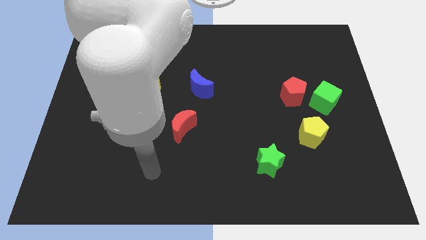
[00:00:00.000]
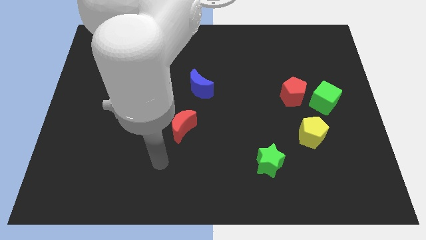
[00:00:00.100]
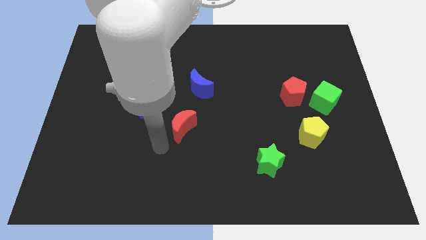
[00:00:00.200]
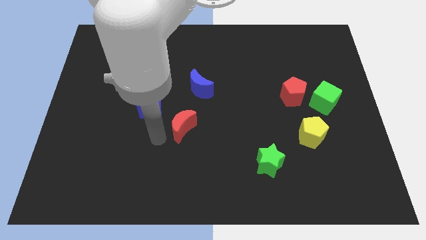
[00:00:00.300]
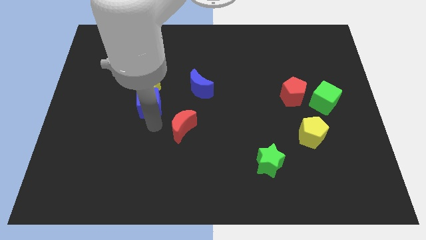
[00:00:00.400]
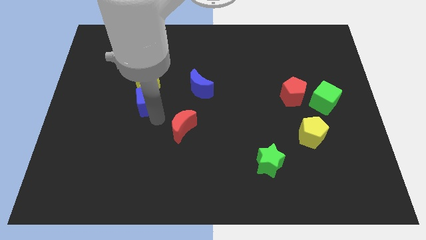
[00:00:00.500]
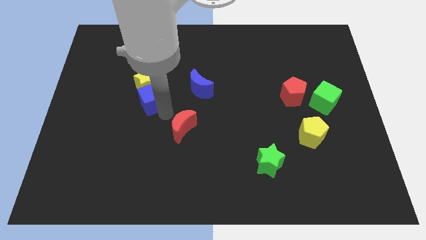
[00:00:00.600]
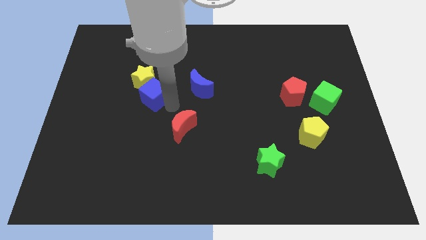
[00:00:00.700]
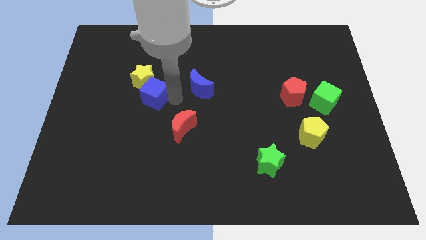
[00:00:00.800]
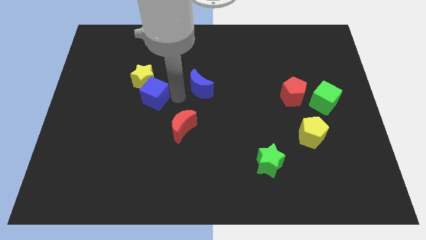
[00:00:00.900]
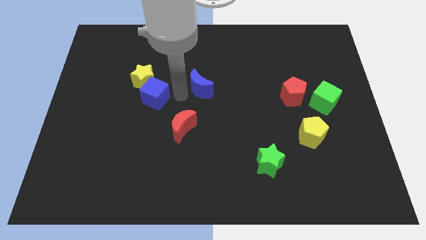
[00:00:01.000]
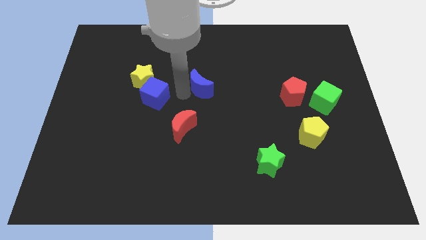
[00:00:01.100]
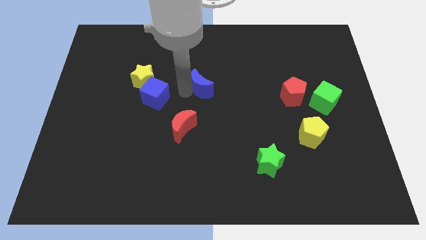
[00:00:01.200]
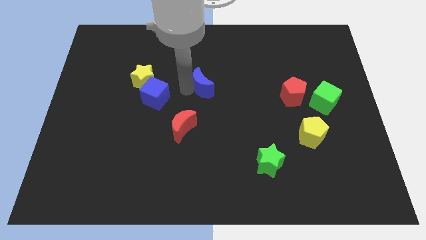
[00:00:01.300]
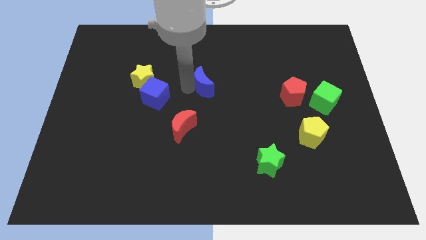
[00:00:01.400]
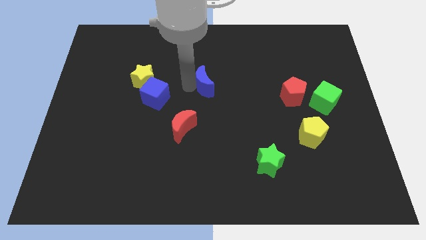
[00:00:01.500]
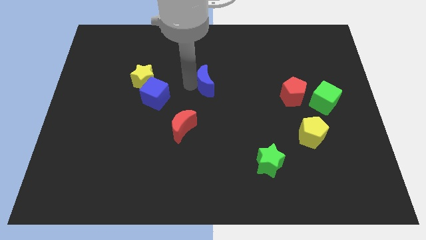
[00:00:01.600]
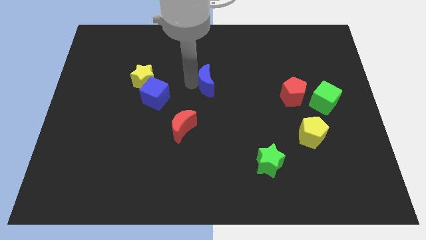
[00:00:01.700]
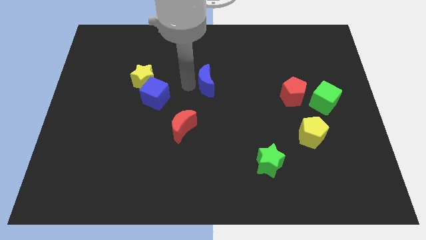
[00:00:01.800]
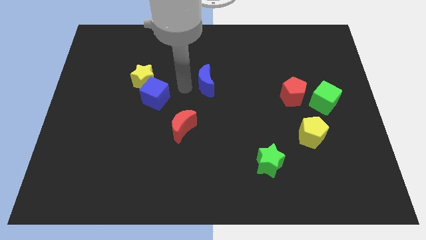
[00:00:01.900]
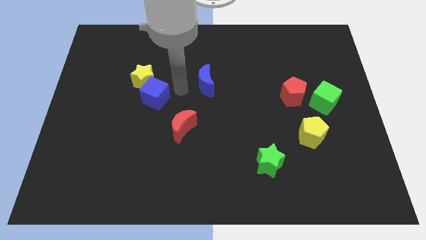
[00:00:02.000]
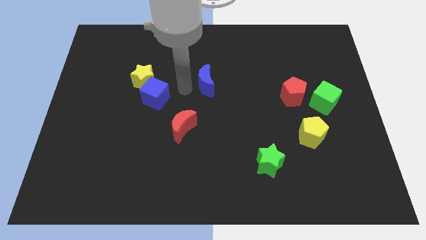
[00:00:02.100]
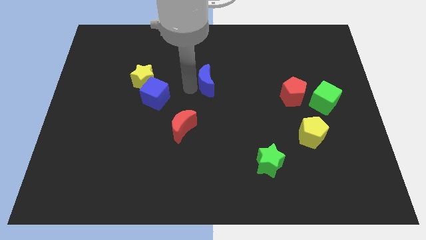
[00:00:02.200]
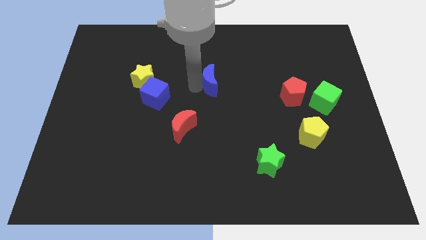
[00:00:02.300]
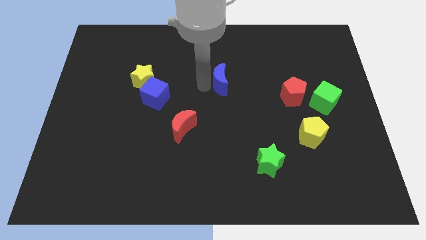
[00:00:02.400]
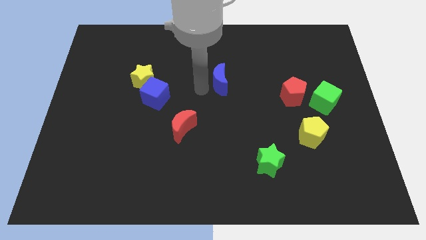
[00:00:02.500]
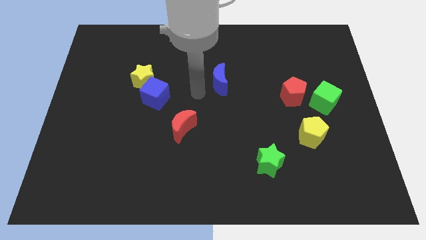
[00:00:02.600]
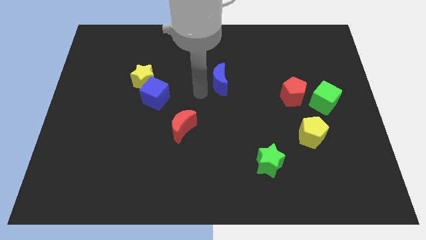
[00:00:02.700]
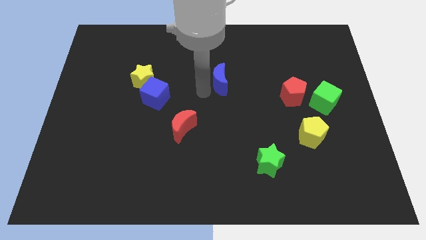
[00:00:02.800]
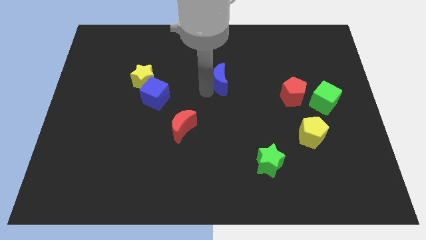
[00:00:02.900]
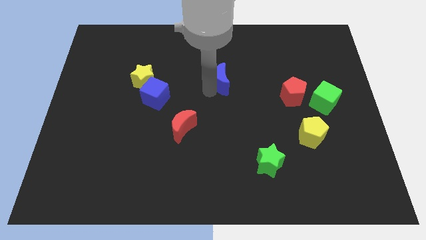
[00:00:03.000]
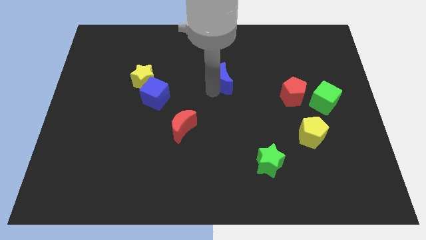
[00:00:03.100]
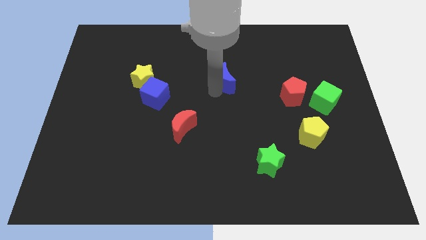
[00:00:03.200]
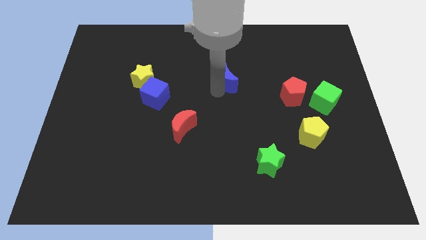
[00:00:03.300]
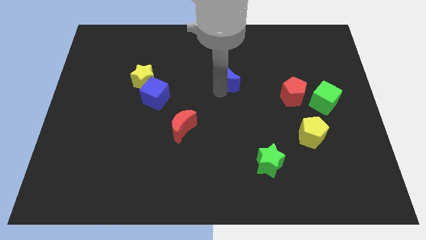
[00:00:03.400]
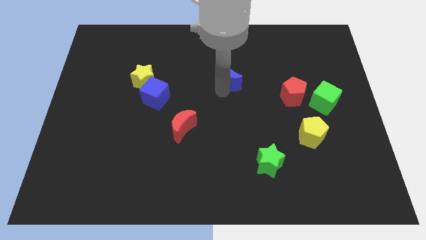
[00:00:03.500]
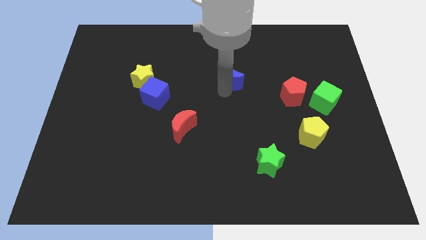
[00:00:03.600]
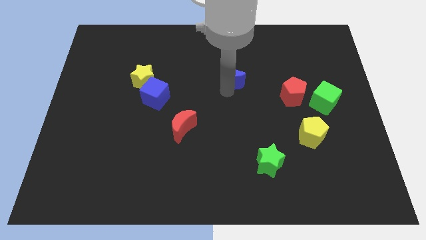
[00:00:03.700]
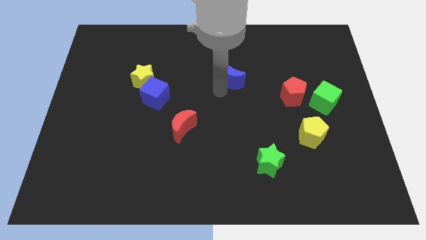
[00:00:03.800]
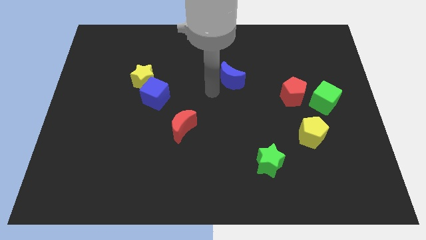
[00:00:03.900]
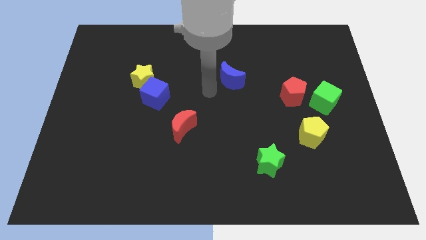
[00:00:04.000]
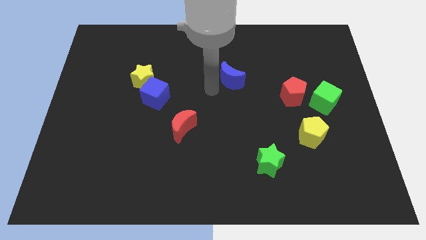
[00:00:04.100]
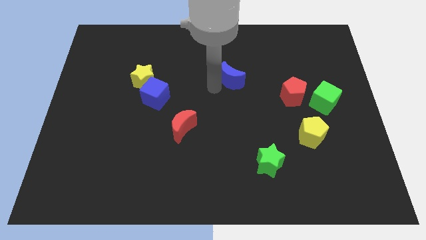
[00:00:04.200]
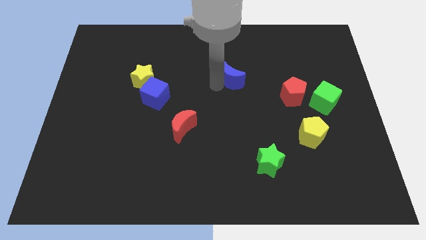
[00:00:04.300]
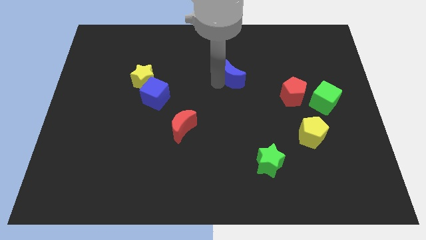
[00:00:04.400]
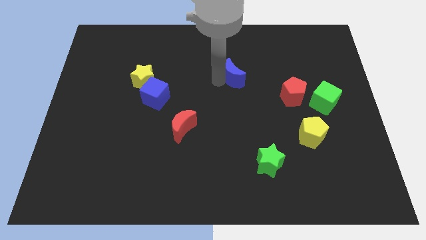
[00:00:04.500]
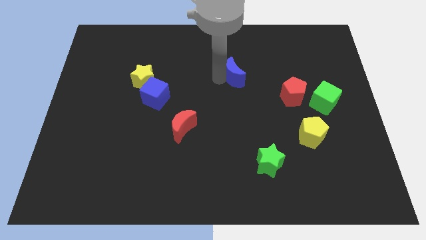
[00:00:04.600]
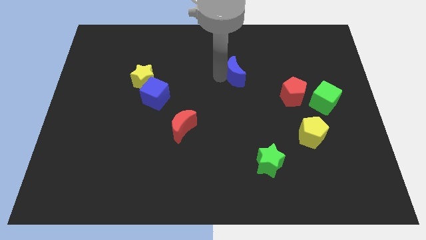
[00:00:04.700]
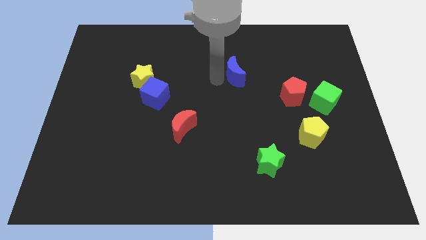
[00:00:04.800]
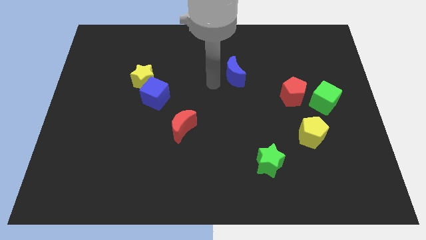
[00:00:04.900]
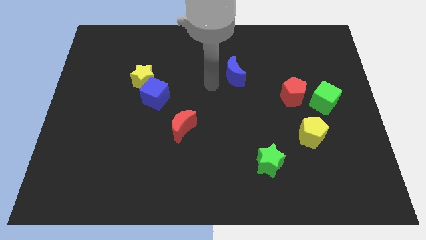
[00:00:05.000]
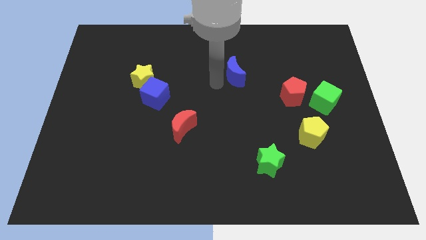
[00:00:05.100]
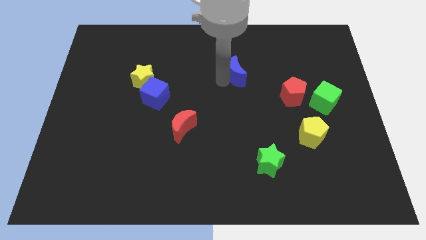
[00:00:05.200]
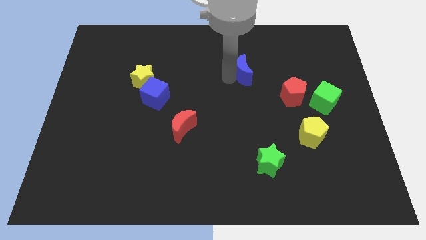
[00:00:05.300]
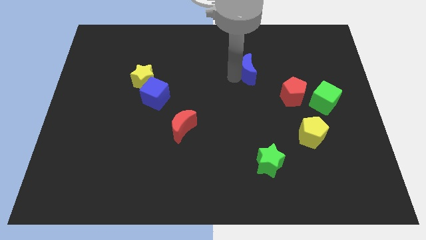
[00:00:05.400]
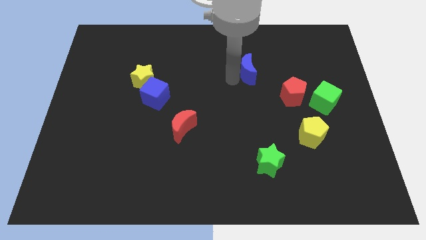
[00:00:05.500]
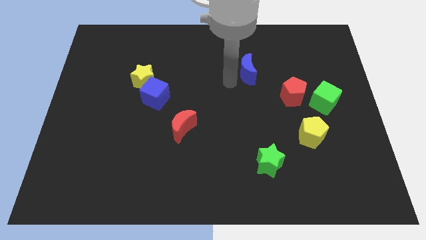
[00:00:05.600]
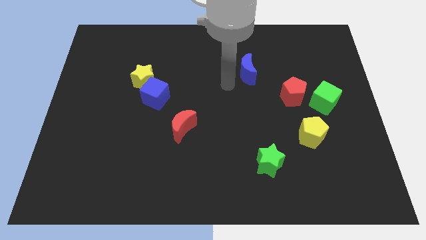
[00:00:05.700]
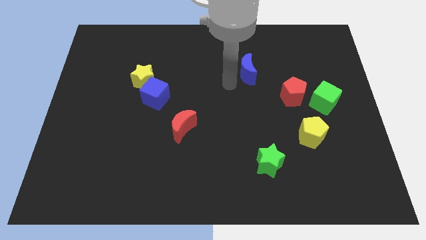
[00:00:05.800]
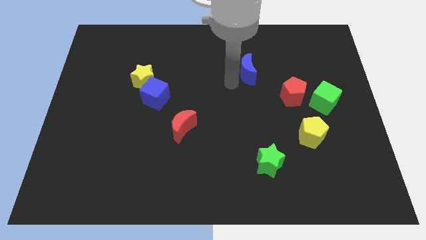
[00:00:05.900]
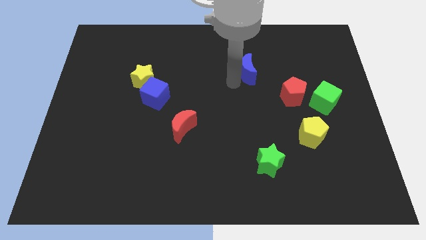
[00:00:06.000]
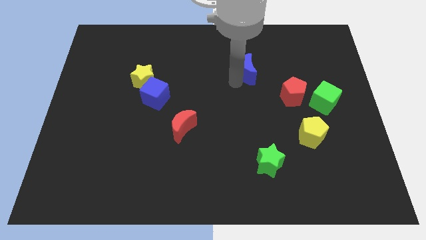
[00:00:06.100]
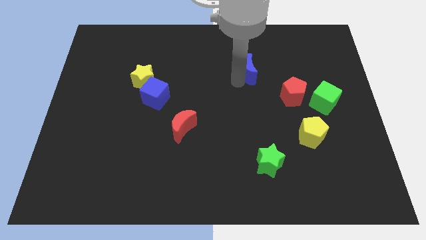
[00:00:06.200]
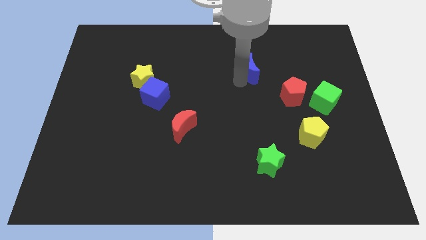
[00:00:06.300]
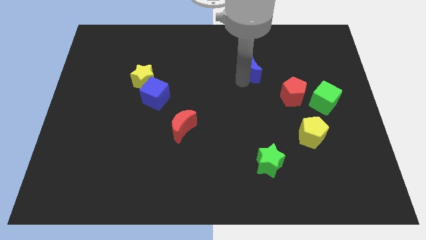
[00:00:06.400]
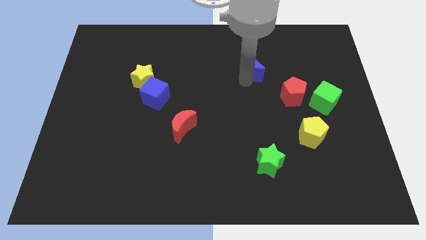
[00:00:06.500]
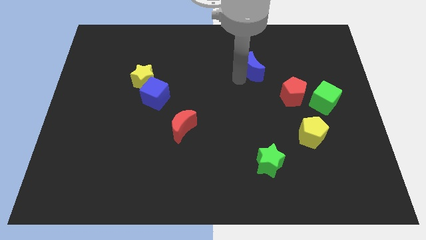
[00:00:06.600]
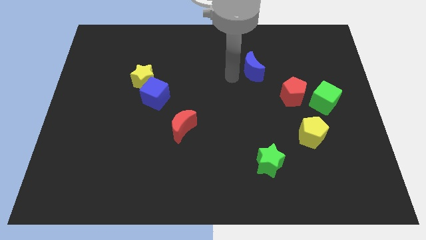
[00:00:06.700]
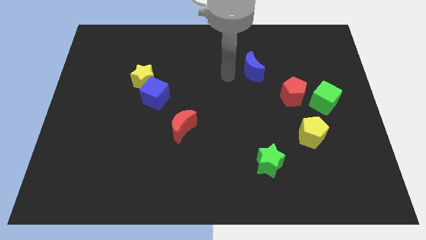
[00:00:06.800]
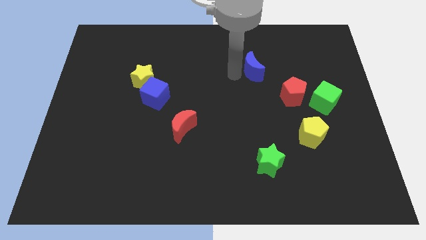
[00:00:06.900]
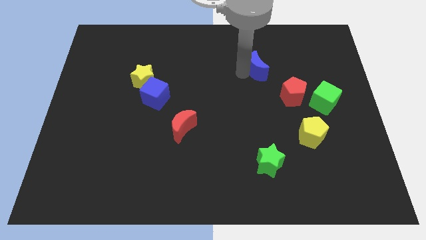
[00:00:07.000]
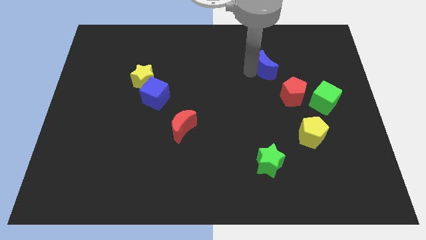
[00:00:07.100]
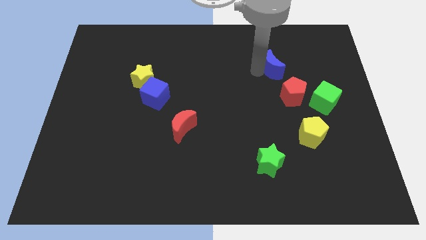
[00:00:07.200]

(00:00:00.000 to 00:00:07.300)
slide the blue moon above the red pentagon

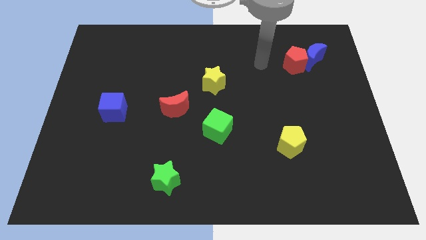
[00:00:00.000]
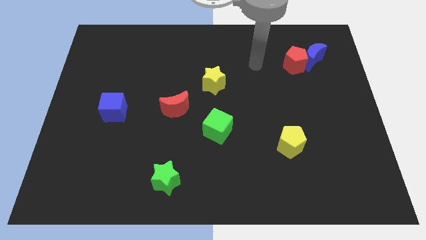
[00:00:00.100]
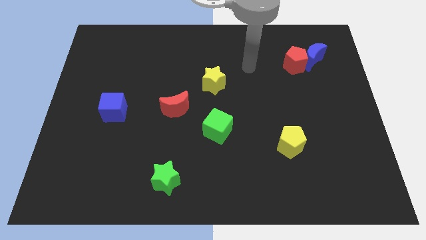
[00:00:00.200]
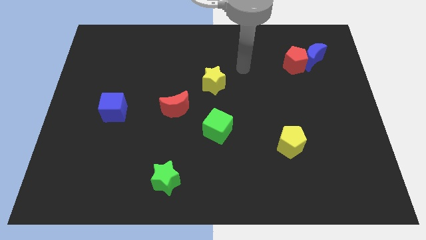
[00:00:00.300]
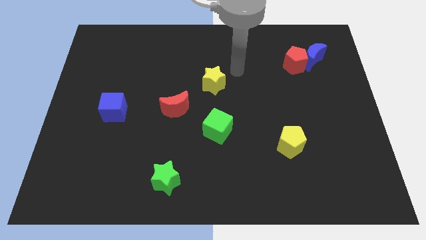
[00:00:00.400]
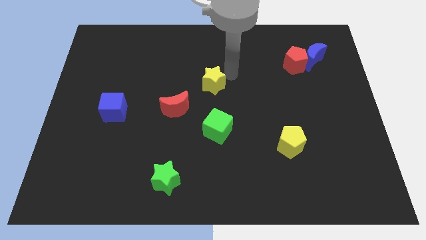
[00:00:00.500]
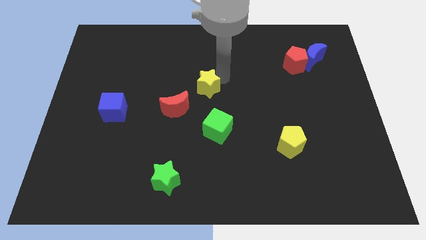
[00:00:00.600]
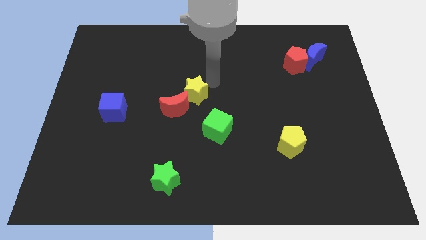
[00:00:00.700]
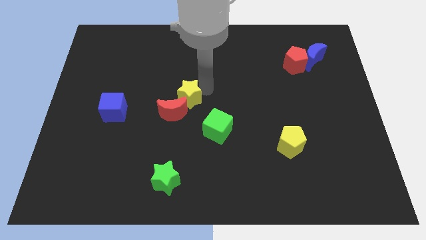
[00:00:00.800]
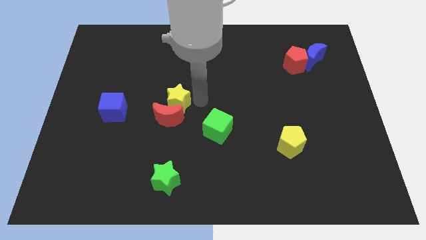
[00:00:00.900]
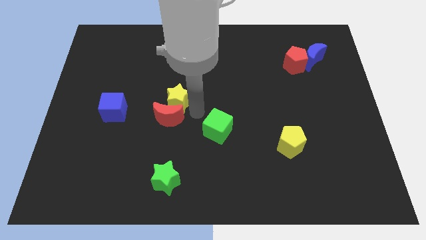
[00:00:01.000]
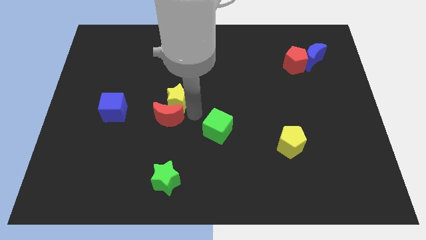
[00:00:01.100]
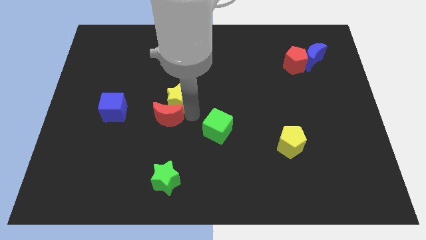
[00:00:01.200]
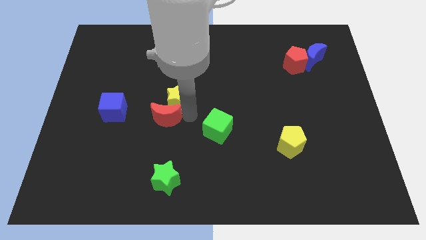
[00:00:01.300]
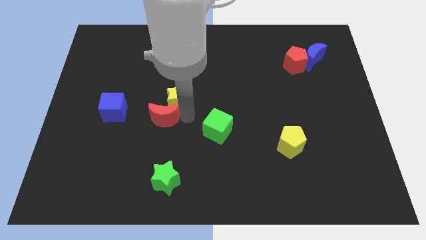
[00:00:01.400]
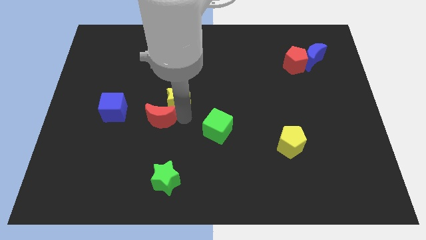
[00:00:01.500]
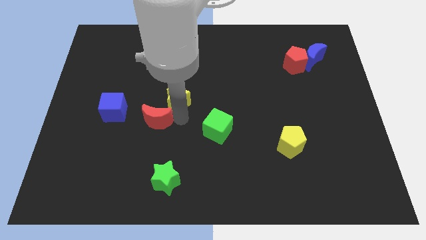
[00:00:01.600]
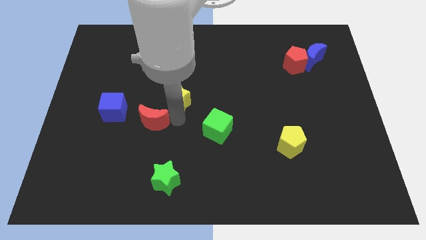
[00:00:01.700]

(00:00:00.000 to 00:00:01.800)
push the red moon to the bottom right side of the blue cube
